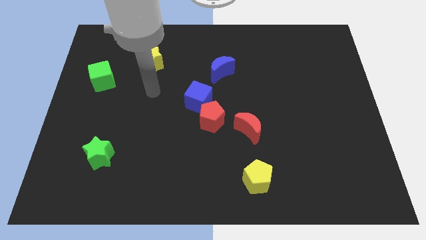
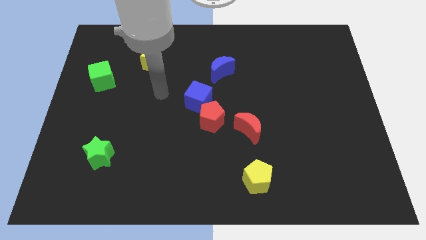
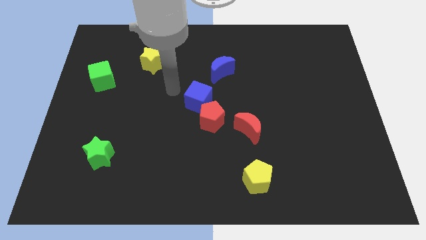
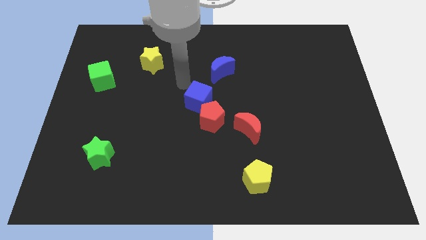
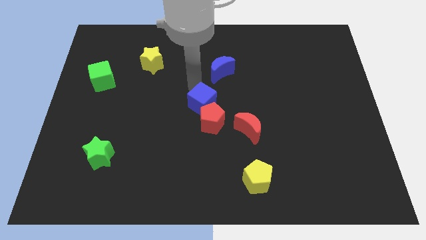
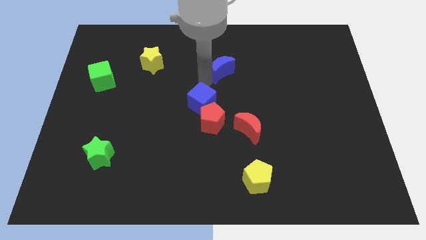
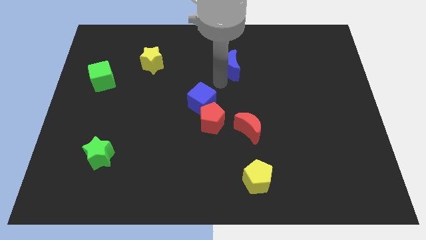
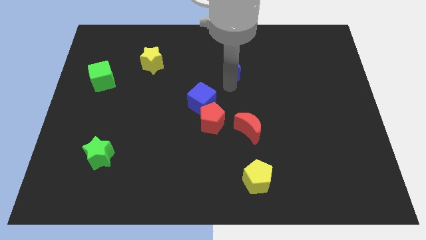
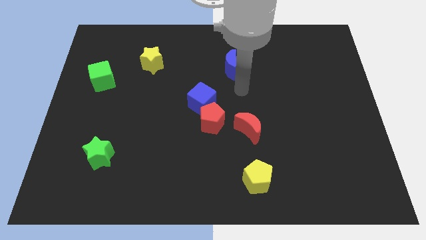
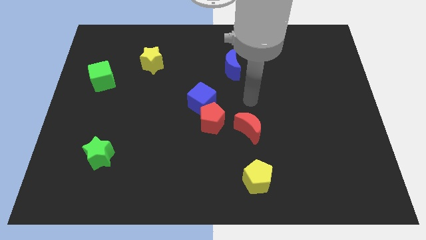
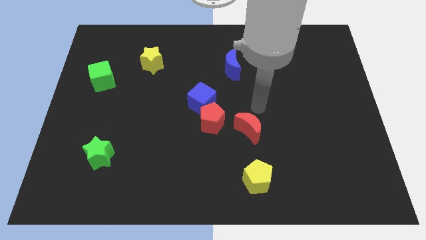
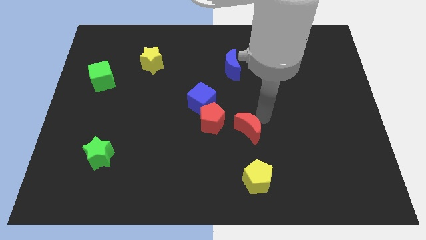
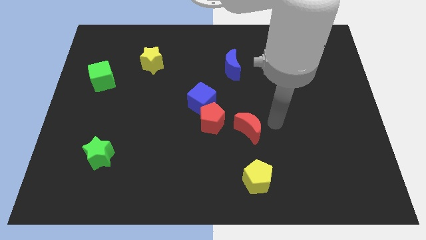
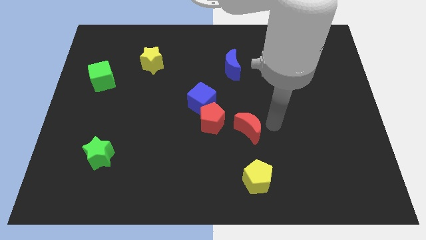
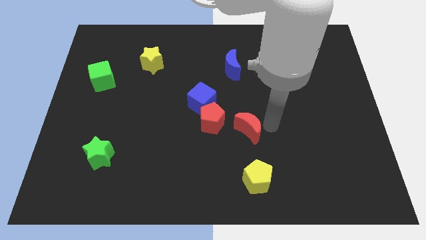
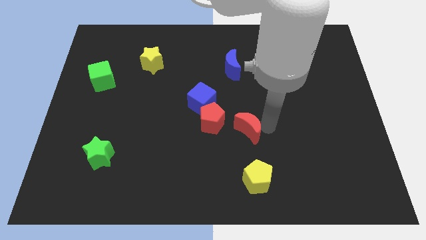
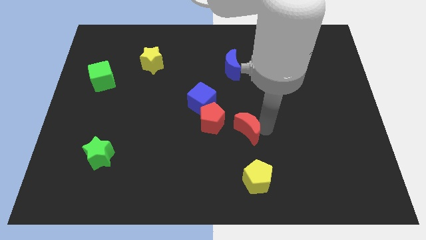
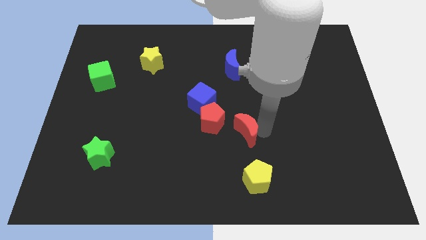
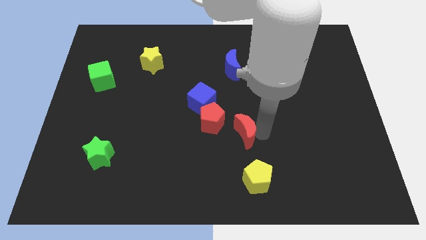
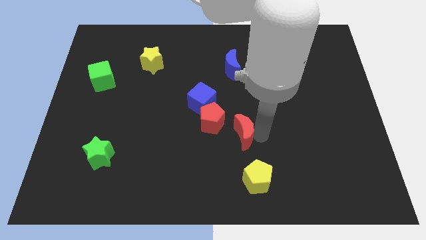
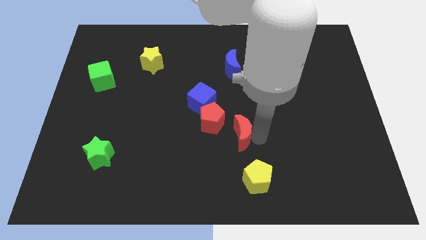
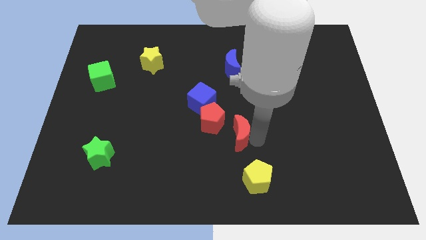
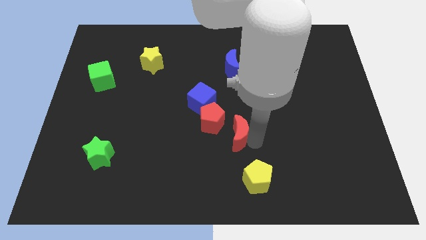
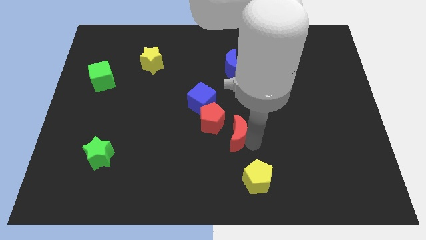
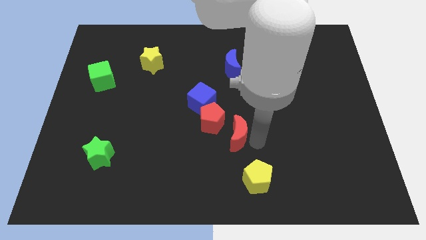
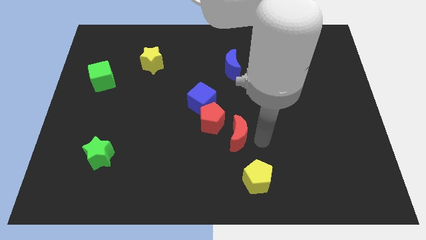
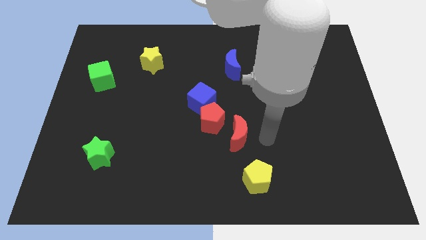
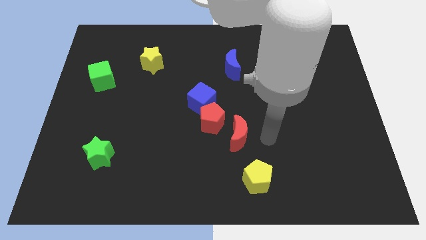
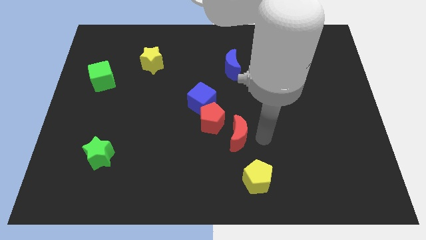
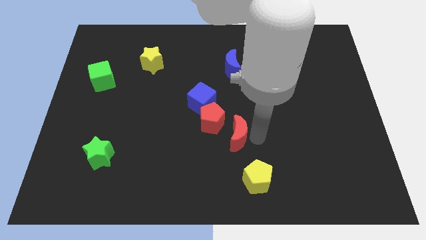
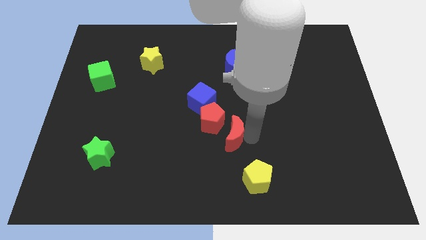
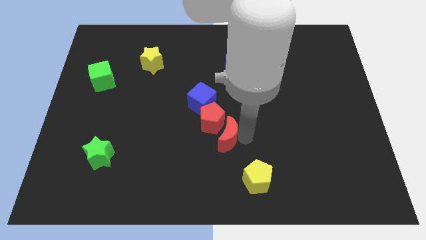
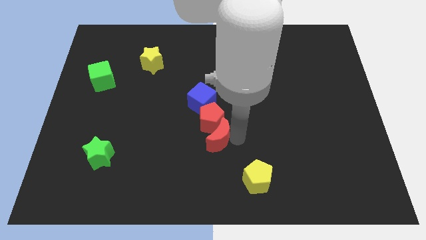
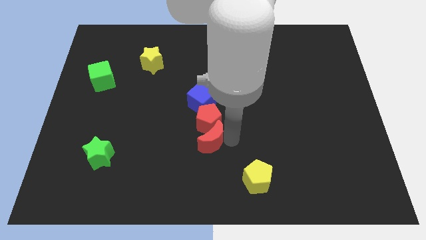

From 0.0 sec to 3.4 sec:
slide the red moon somewhat left

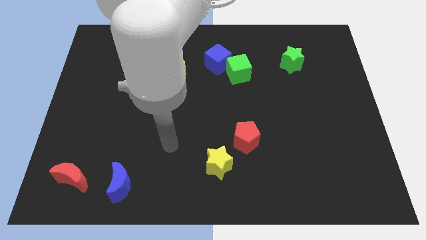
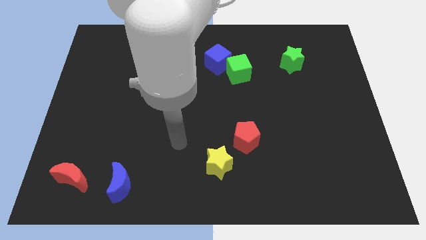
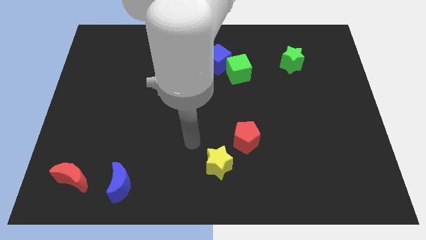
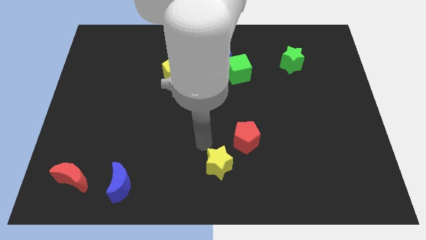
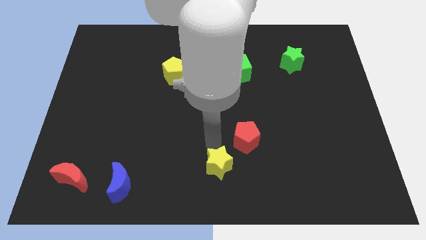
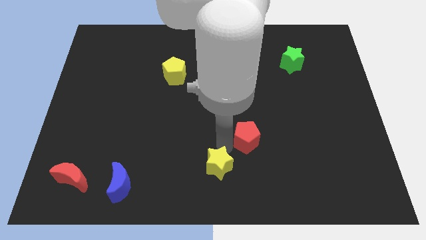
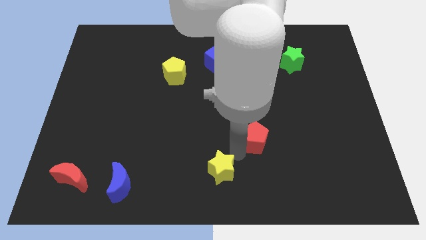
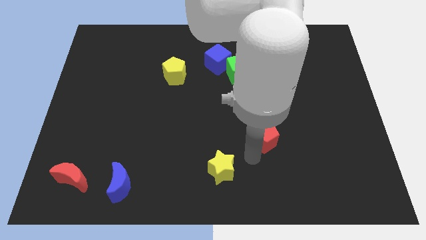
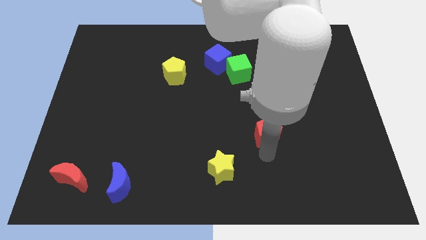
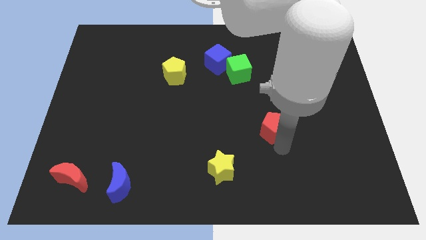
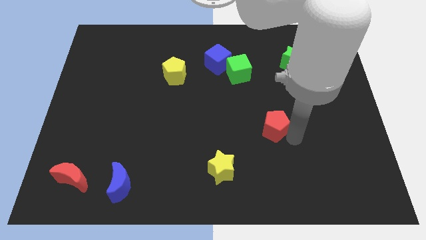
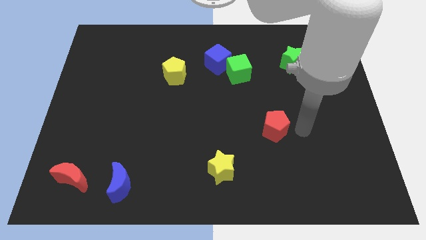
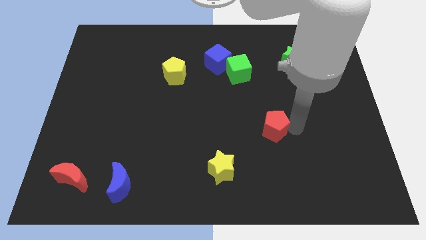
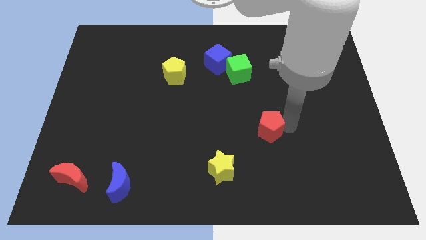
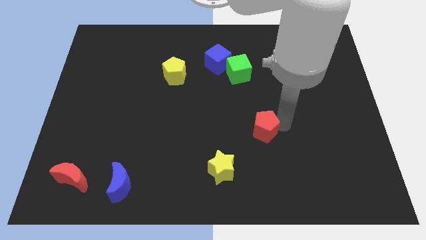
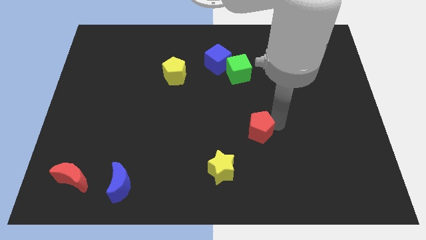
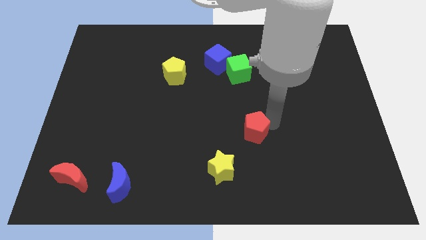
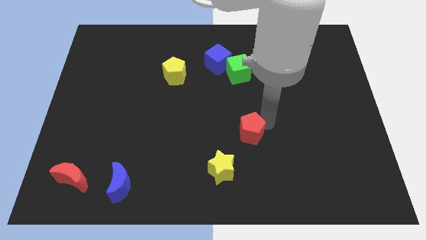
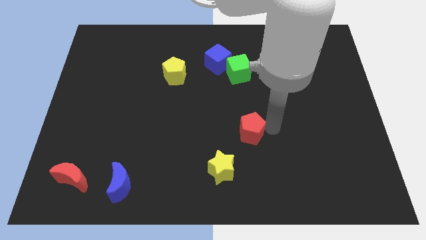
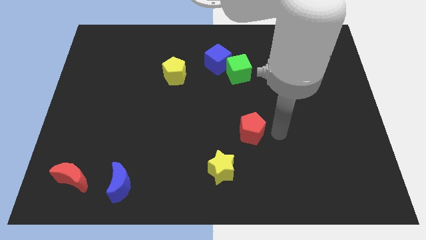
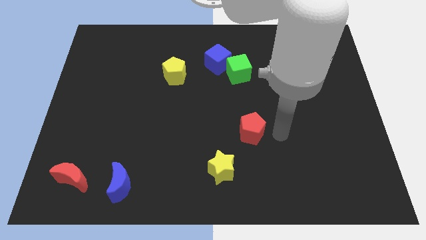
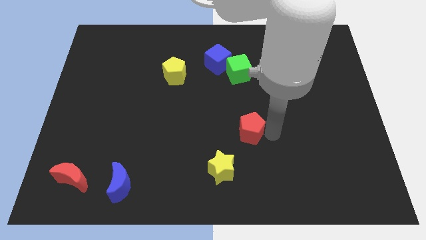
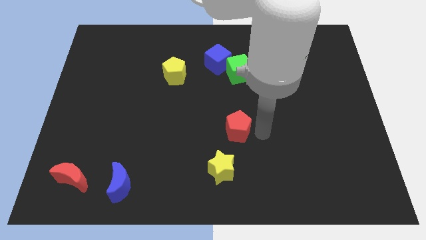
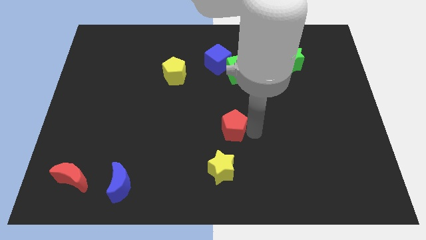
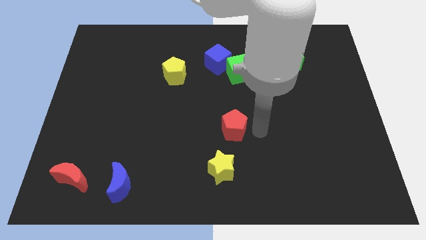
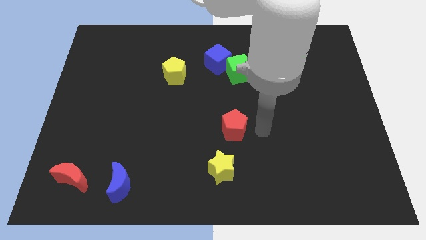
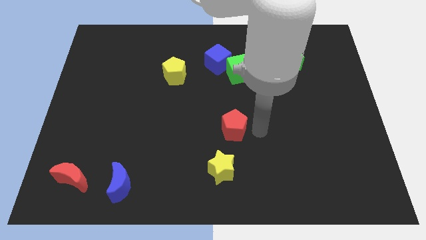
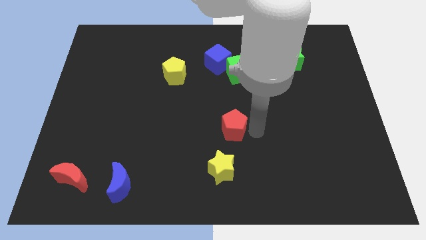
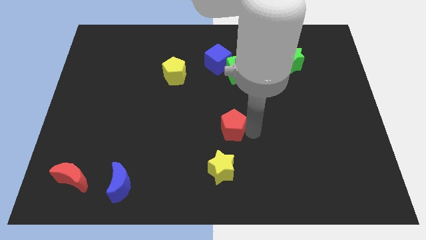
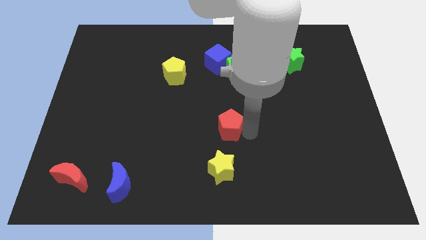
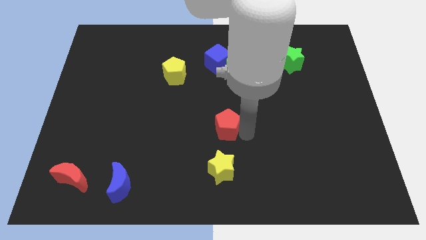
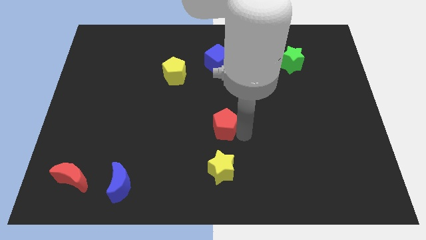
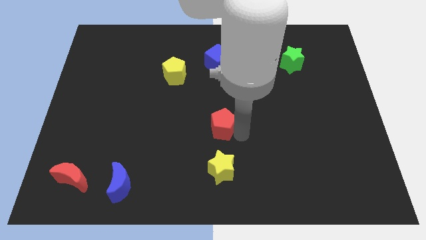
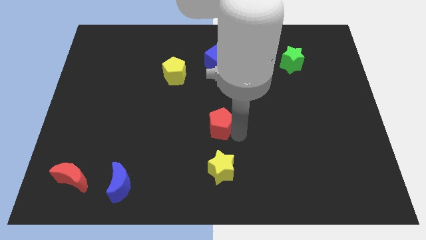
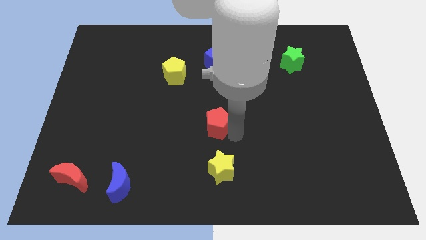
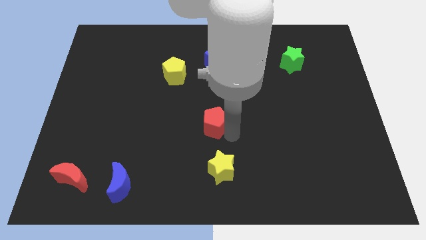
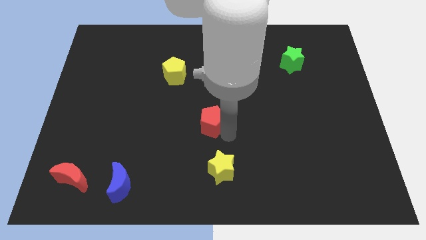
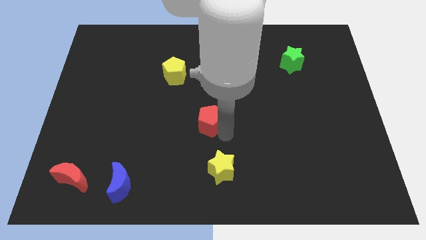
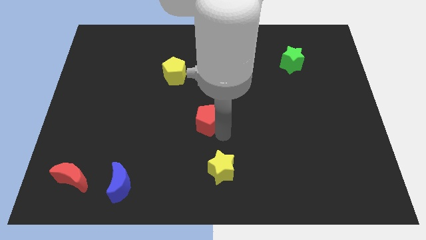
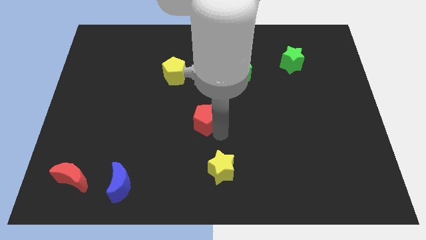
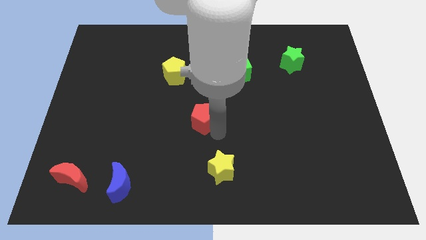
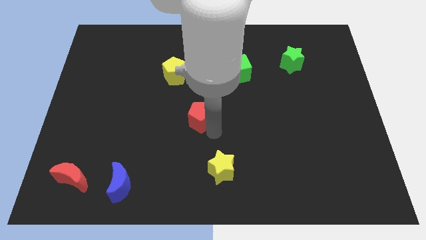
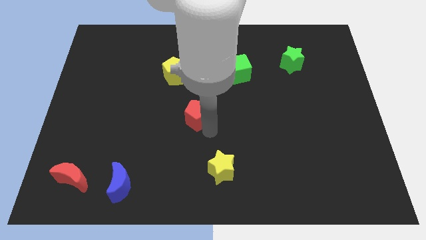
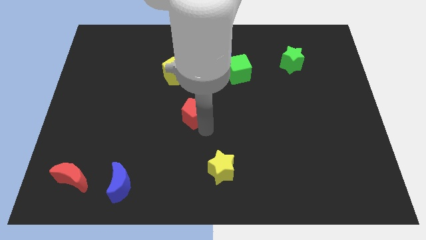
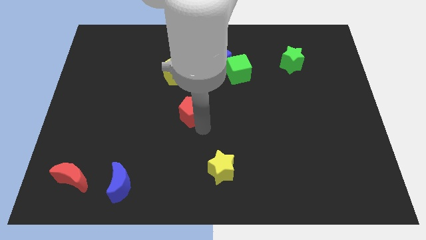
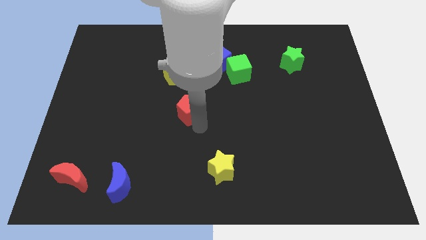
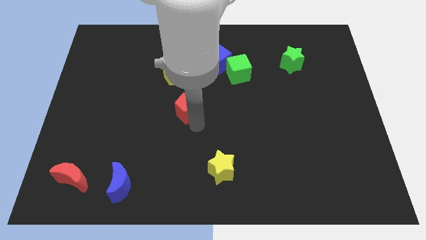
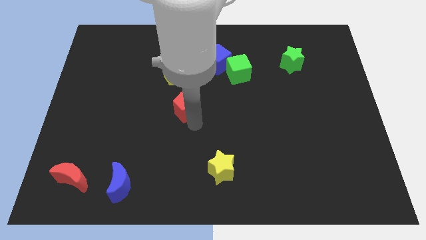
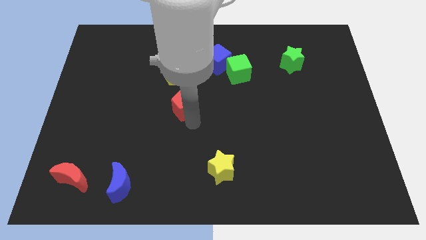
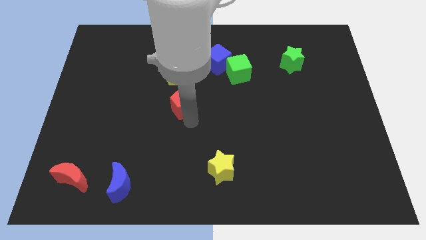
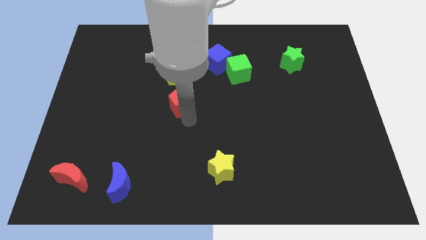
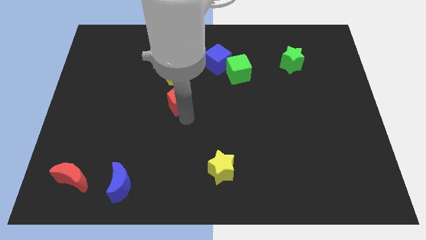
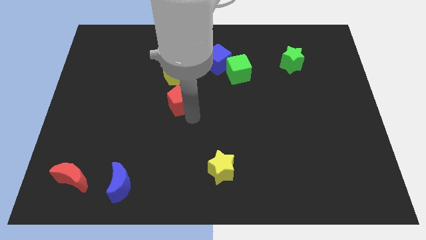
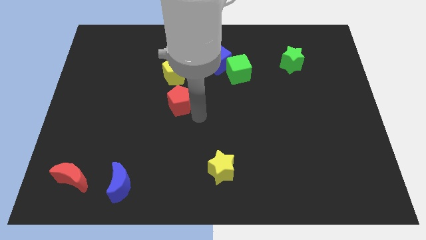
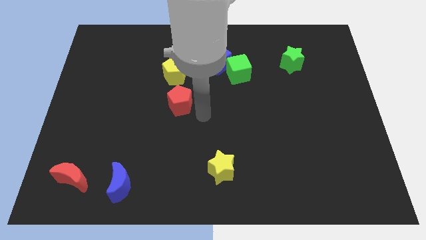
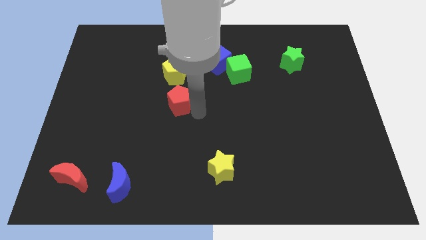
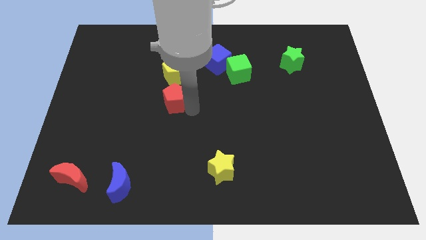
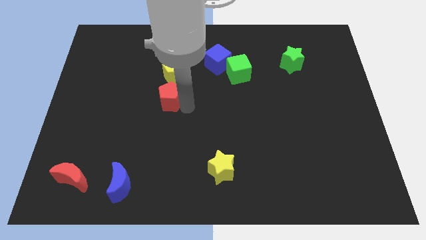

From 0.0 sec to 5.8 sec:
move the red pentagon upwards and to the left
